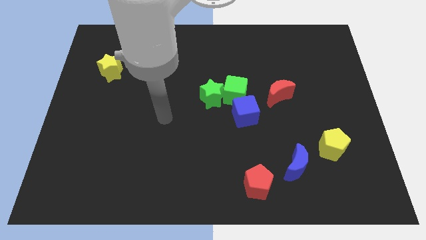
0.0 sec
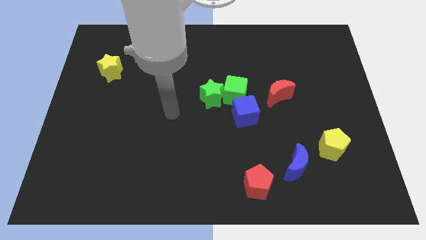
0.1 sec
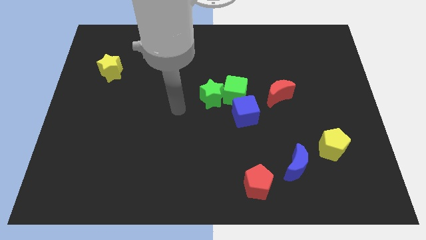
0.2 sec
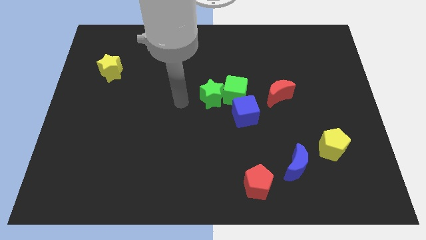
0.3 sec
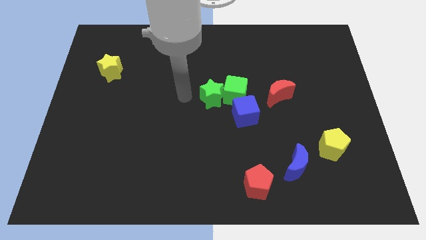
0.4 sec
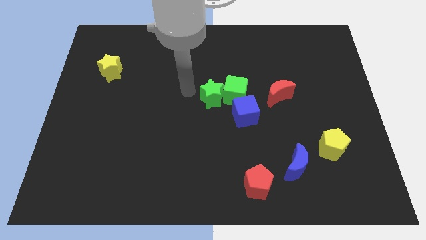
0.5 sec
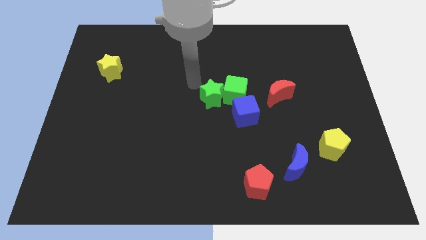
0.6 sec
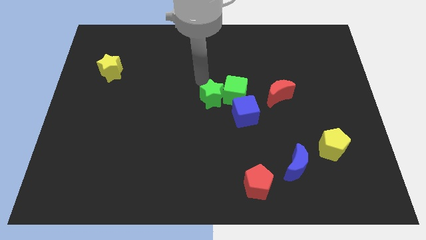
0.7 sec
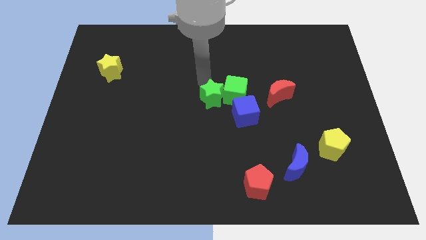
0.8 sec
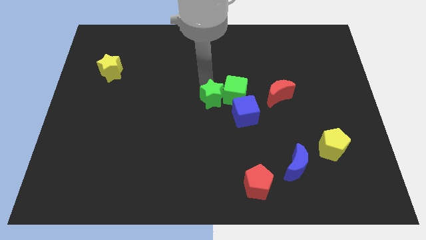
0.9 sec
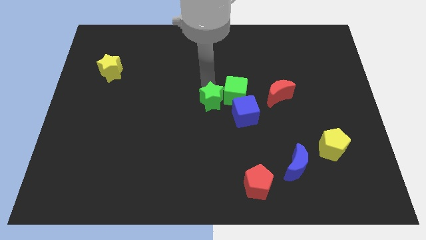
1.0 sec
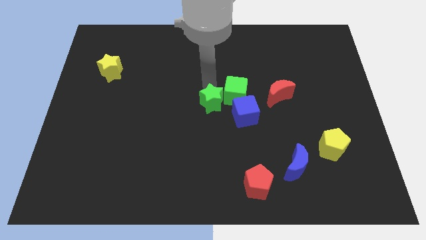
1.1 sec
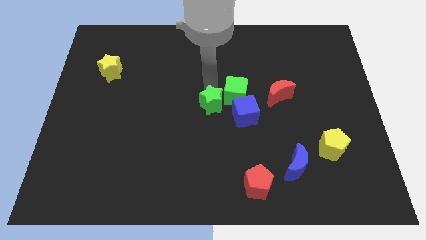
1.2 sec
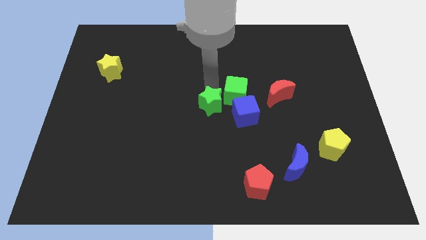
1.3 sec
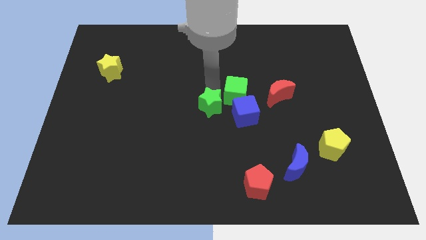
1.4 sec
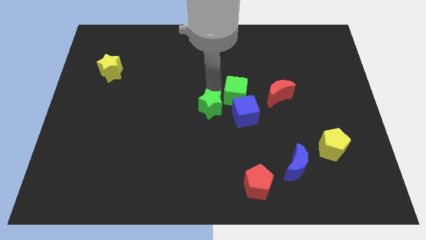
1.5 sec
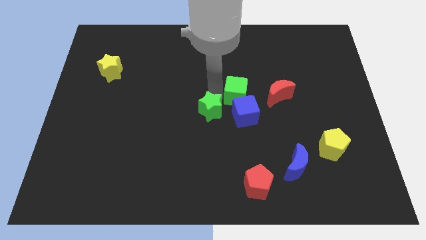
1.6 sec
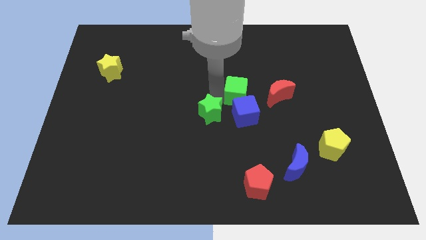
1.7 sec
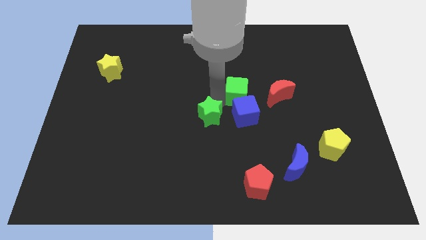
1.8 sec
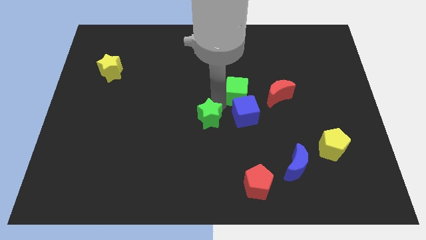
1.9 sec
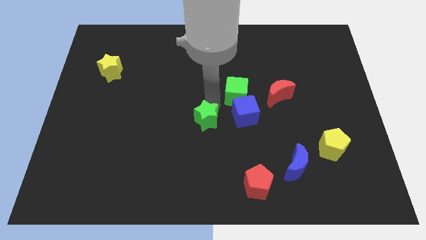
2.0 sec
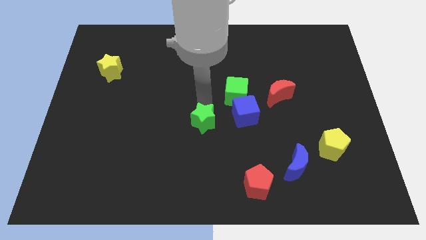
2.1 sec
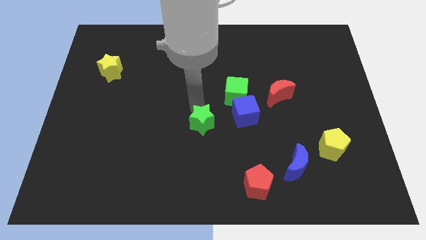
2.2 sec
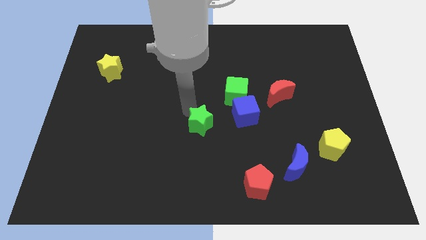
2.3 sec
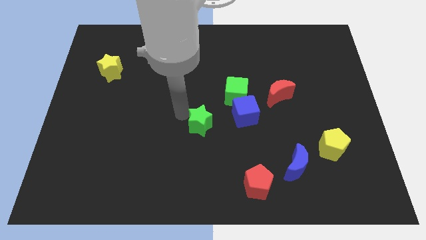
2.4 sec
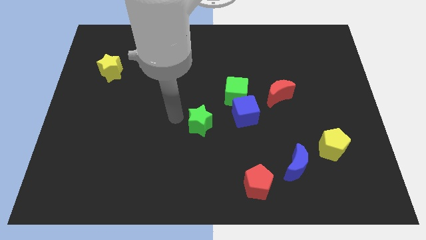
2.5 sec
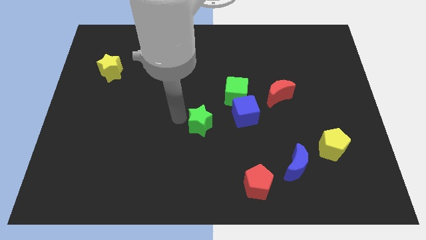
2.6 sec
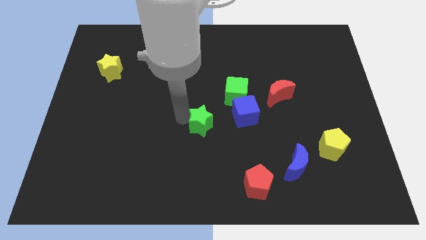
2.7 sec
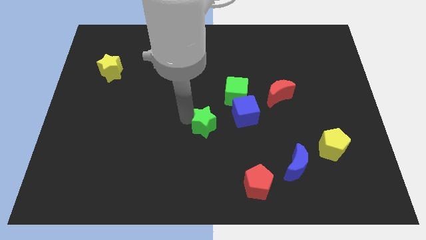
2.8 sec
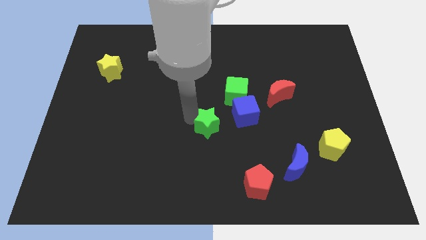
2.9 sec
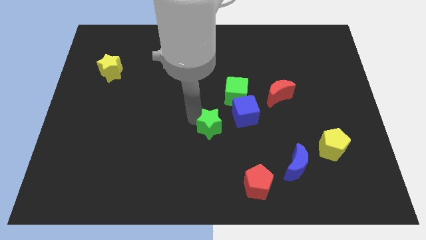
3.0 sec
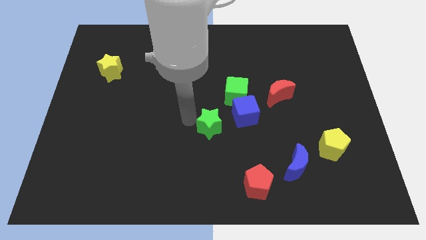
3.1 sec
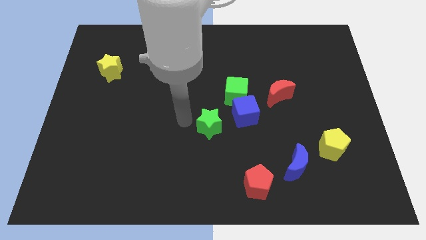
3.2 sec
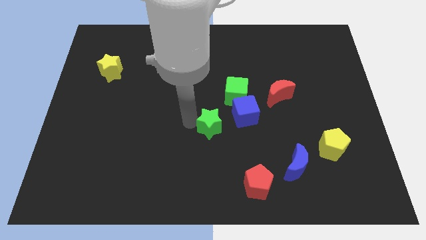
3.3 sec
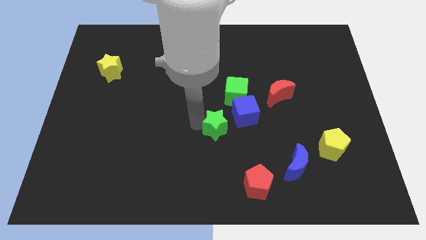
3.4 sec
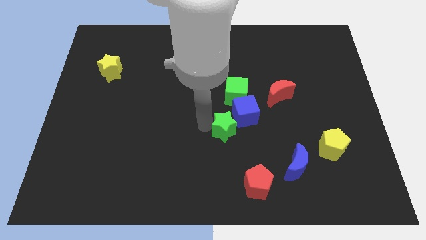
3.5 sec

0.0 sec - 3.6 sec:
move the green star somewhat diagonally downwards and to the right

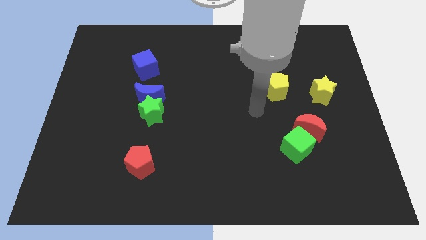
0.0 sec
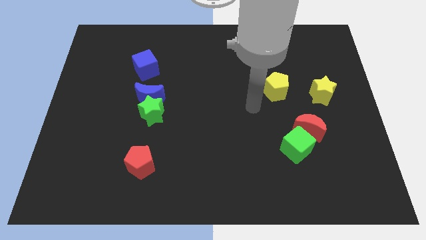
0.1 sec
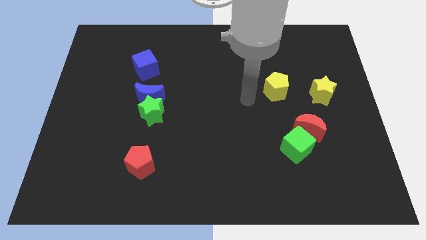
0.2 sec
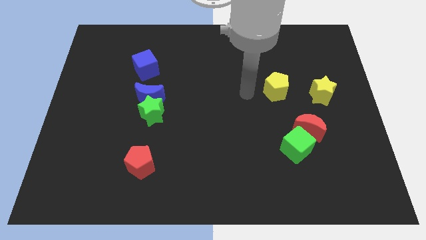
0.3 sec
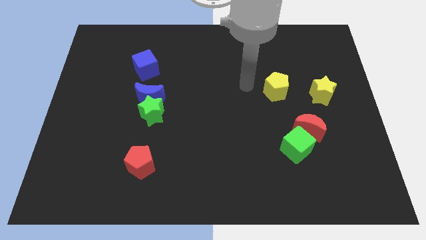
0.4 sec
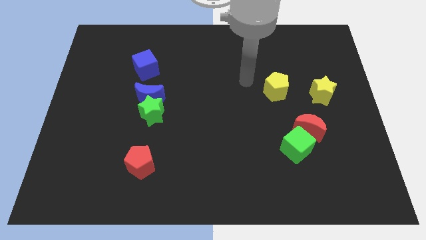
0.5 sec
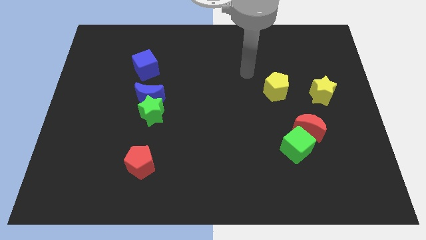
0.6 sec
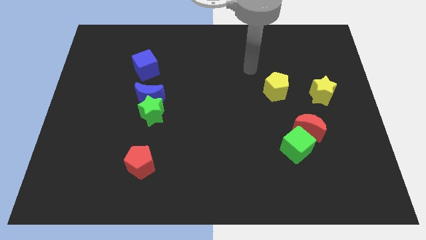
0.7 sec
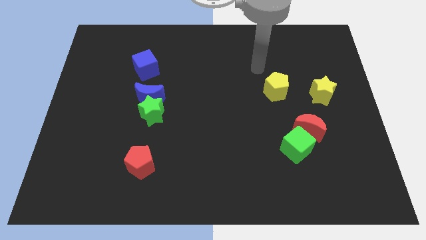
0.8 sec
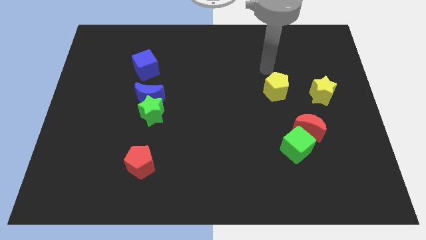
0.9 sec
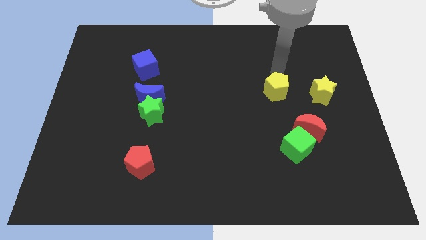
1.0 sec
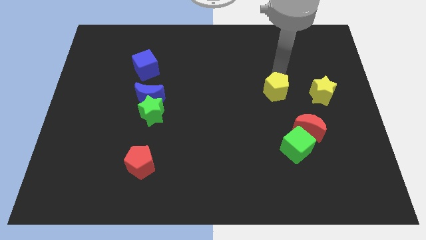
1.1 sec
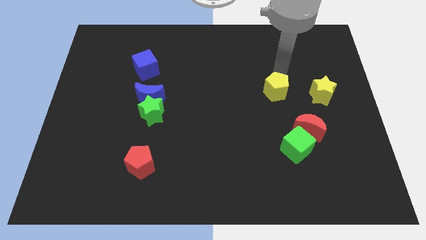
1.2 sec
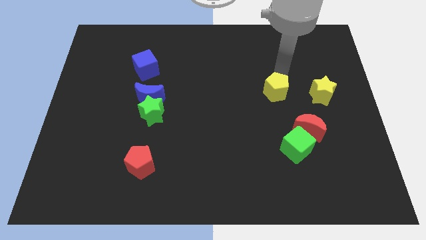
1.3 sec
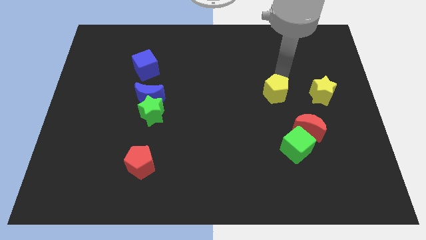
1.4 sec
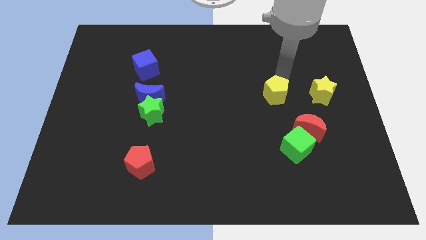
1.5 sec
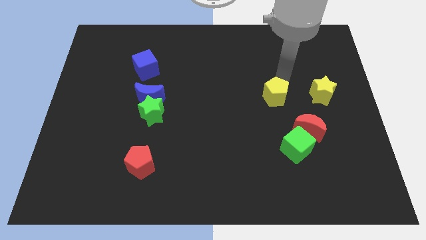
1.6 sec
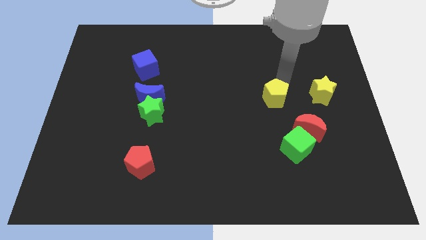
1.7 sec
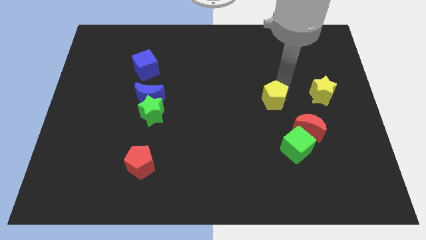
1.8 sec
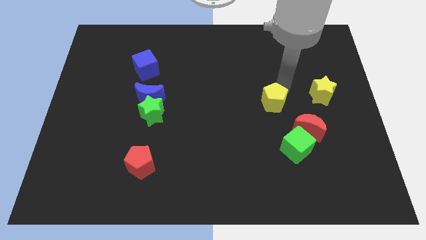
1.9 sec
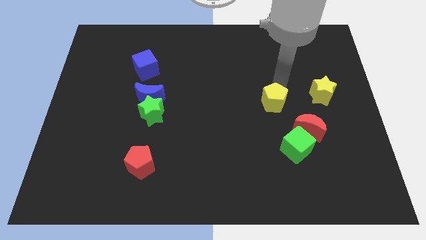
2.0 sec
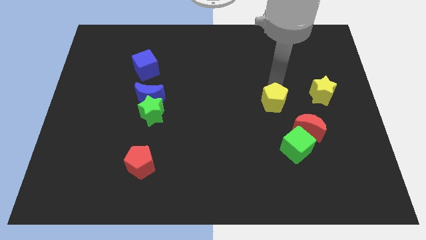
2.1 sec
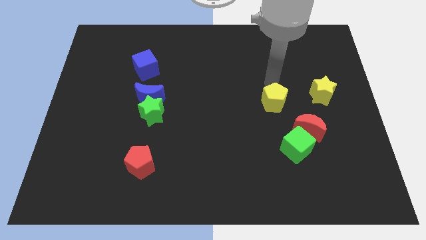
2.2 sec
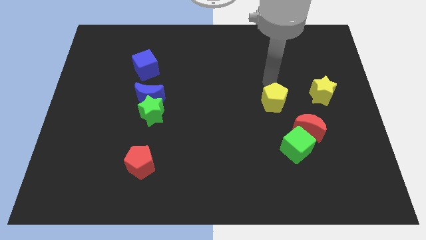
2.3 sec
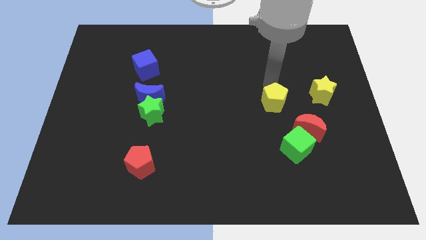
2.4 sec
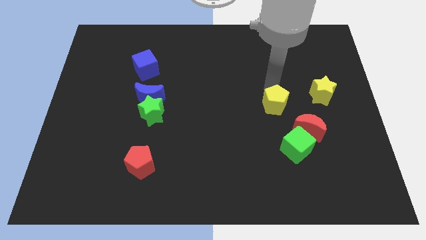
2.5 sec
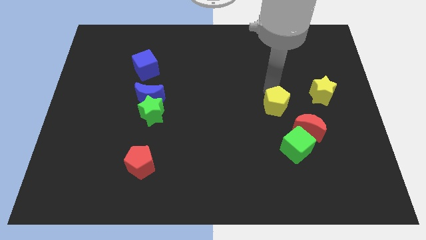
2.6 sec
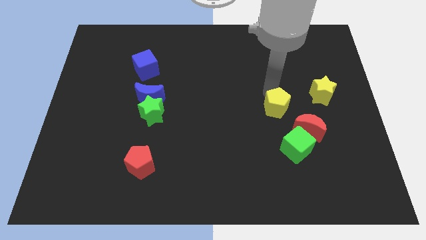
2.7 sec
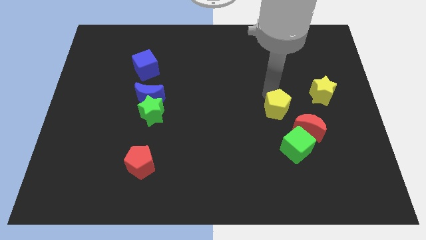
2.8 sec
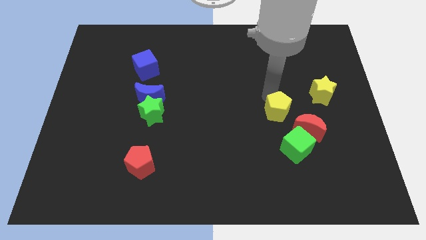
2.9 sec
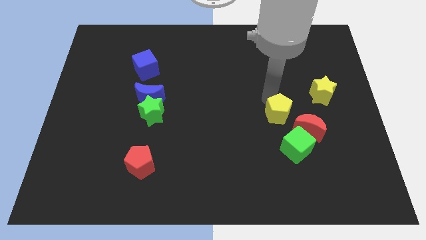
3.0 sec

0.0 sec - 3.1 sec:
move the yellow pentagon downwards slightly

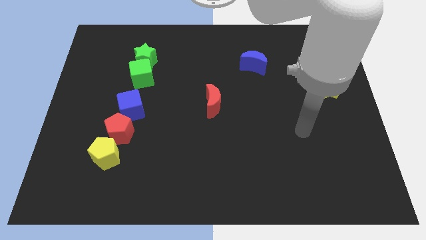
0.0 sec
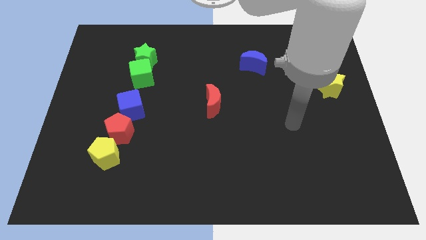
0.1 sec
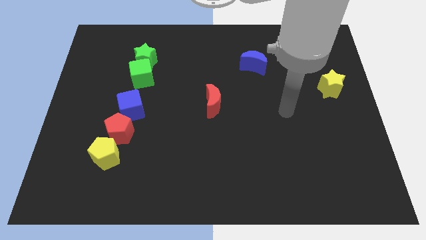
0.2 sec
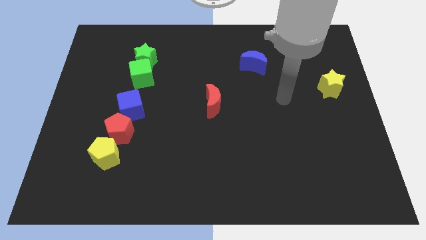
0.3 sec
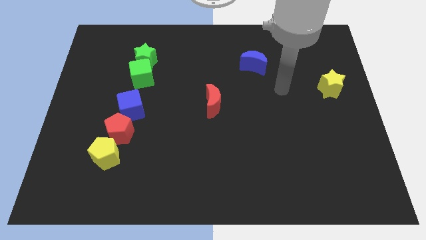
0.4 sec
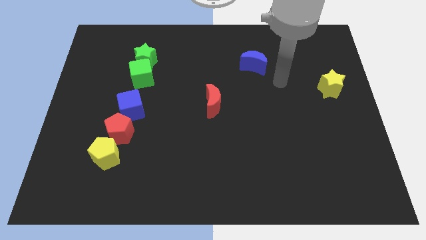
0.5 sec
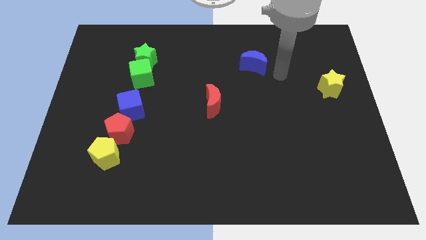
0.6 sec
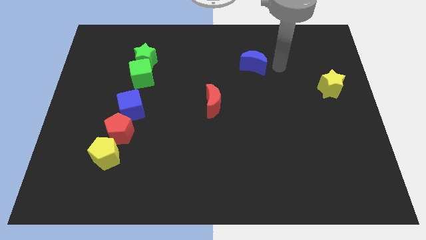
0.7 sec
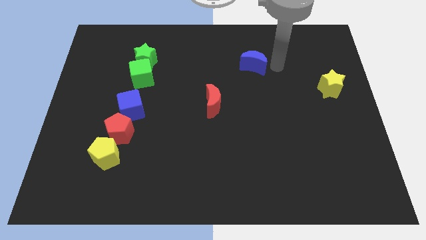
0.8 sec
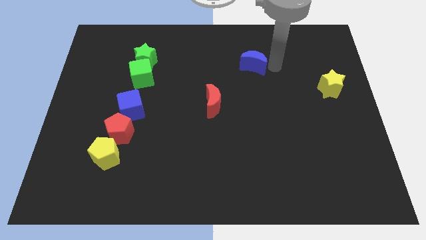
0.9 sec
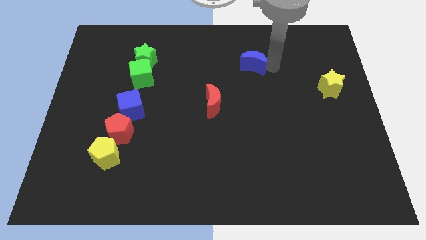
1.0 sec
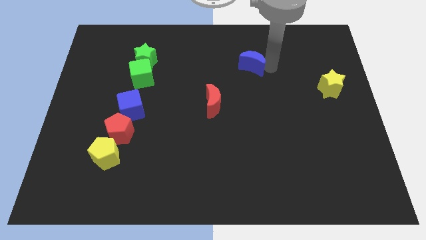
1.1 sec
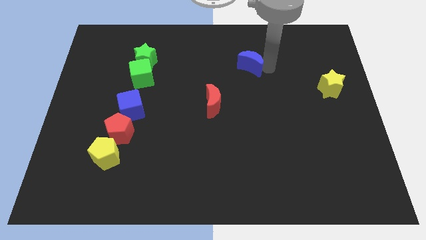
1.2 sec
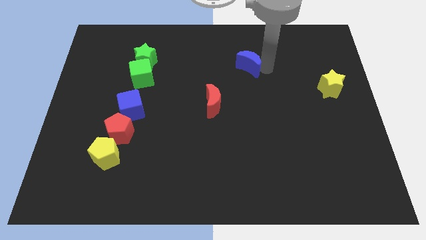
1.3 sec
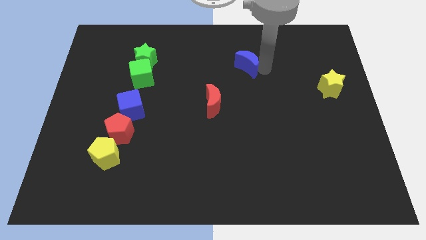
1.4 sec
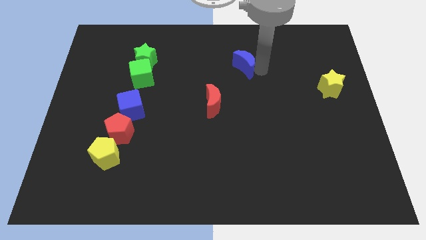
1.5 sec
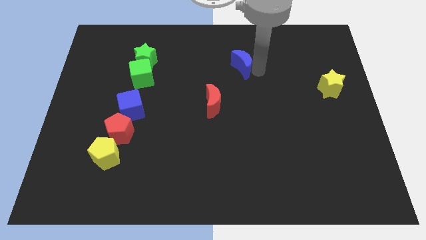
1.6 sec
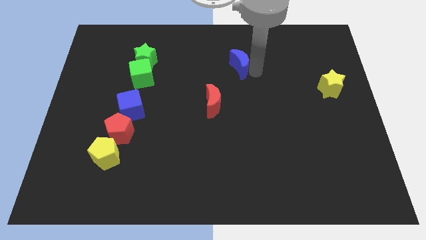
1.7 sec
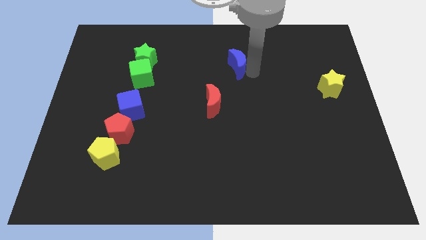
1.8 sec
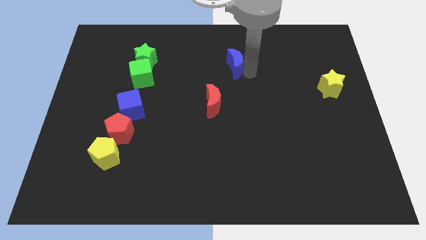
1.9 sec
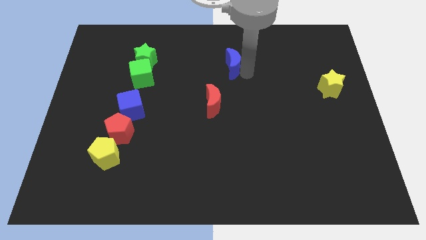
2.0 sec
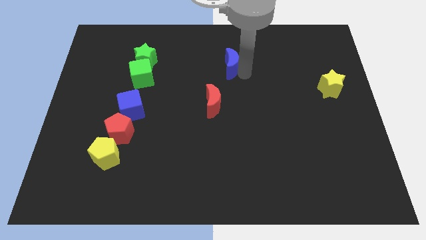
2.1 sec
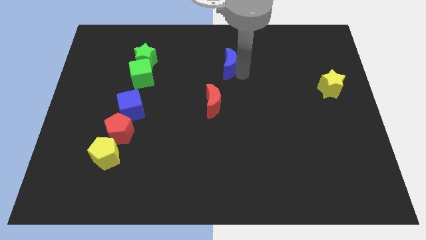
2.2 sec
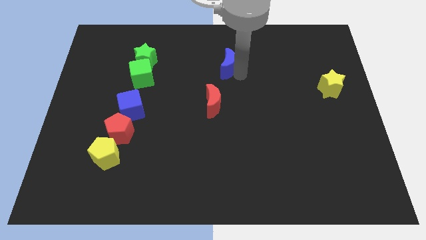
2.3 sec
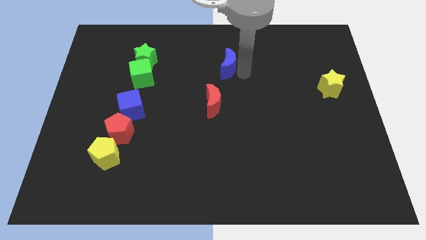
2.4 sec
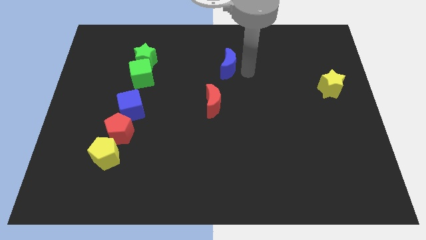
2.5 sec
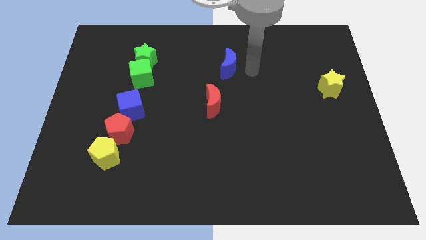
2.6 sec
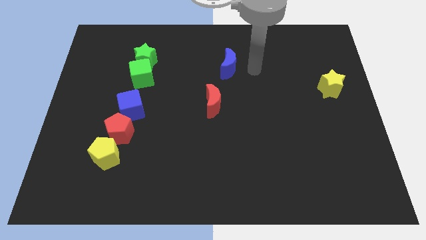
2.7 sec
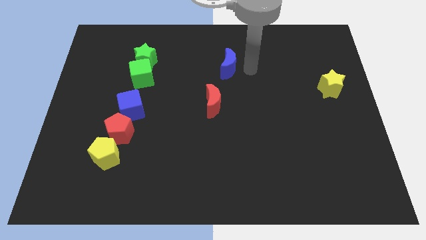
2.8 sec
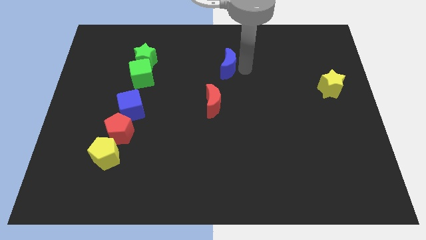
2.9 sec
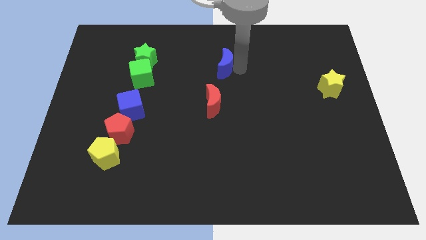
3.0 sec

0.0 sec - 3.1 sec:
slightly slide the blue moon to the left
